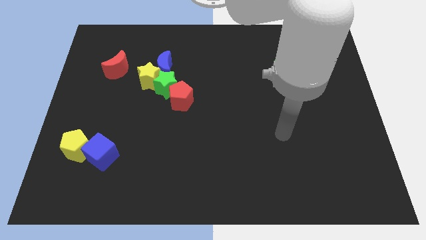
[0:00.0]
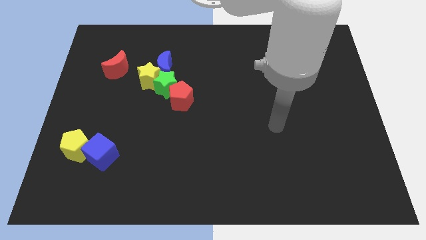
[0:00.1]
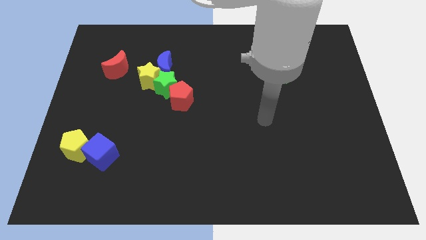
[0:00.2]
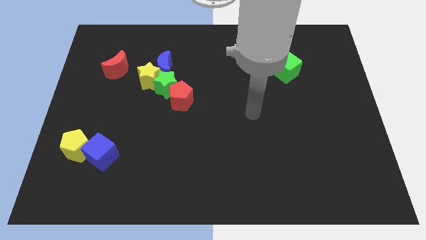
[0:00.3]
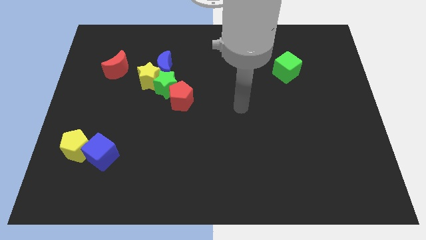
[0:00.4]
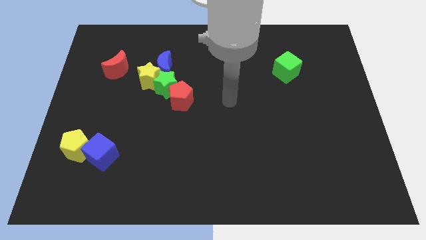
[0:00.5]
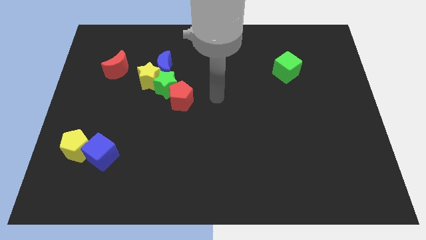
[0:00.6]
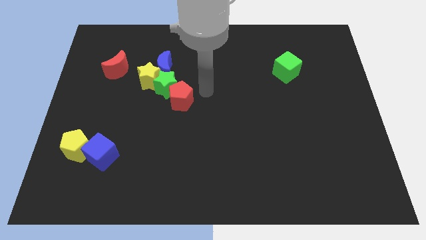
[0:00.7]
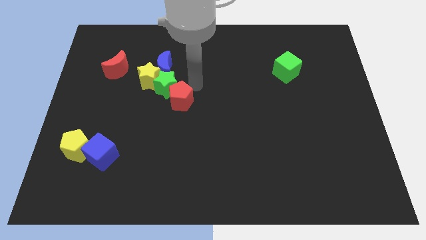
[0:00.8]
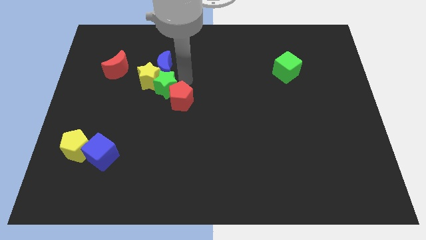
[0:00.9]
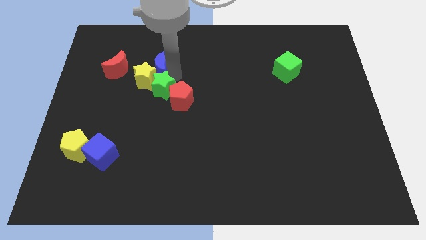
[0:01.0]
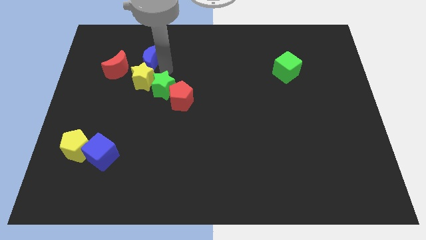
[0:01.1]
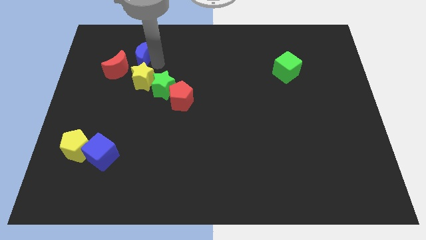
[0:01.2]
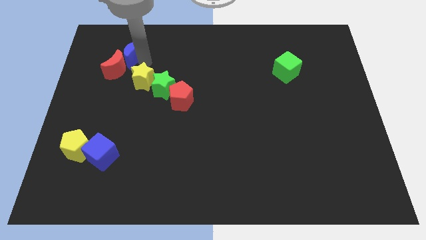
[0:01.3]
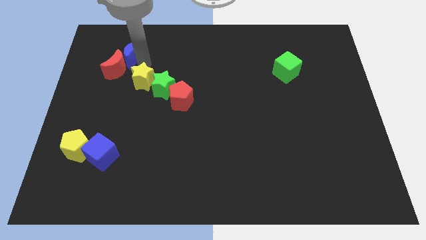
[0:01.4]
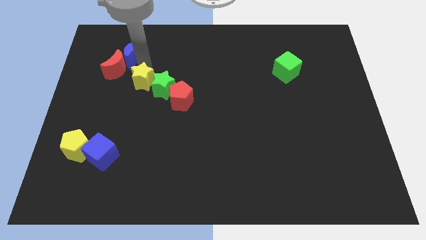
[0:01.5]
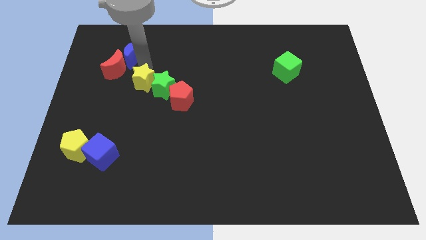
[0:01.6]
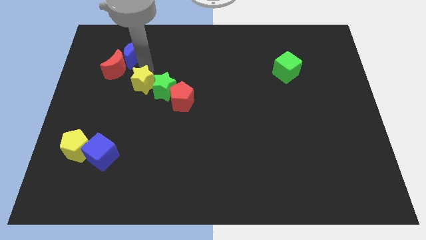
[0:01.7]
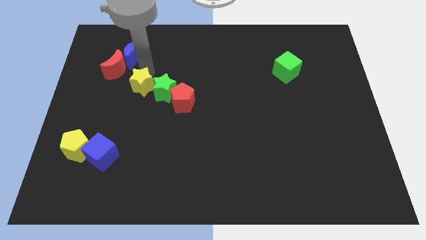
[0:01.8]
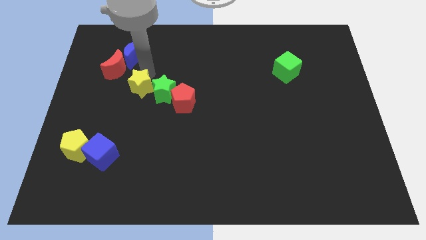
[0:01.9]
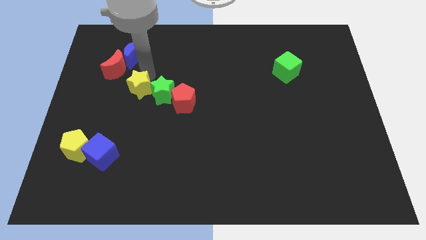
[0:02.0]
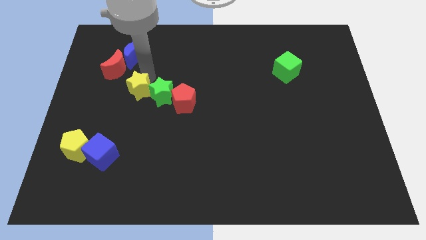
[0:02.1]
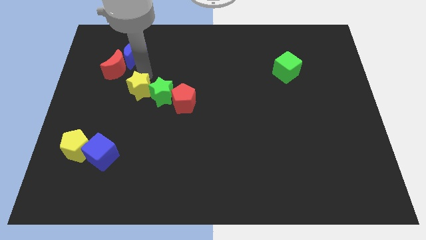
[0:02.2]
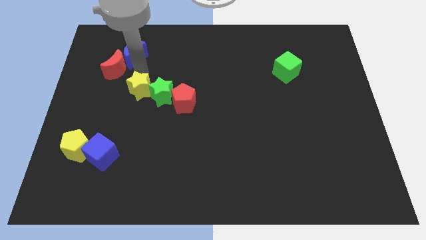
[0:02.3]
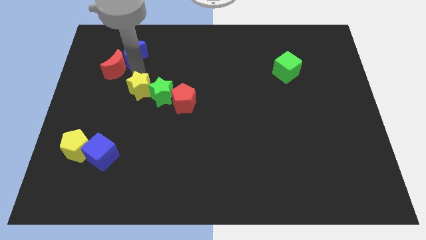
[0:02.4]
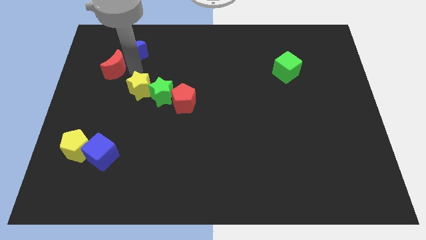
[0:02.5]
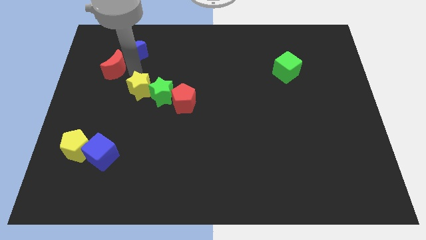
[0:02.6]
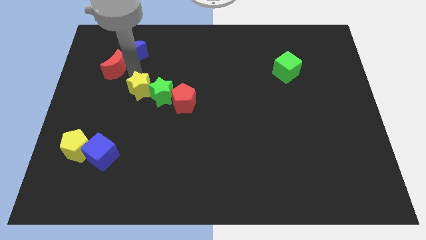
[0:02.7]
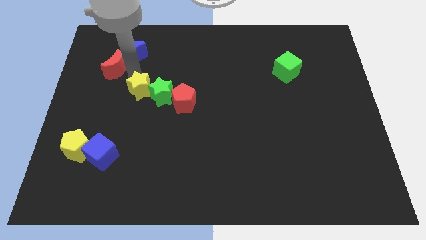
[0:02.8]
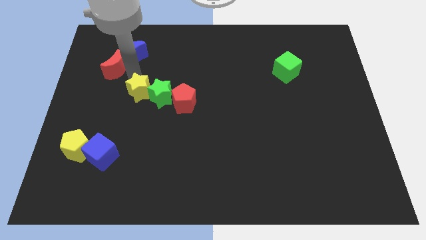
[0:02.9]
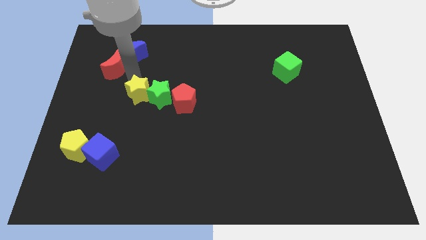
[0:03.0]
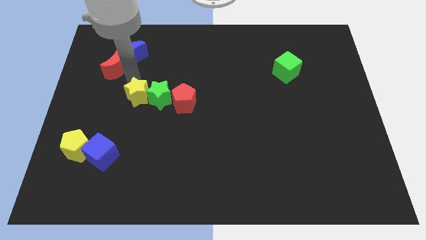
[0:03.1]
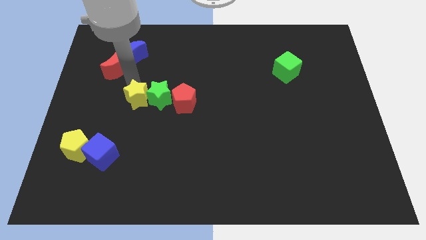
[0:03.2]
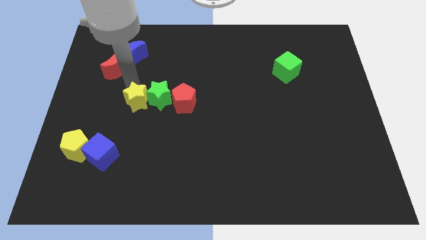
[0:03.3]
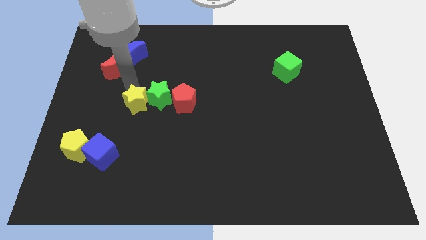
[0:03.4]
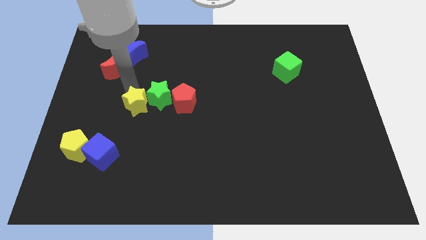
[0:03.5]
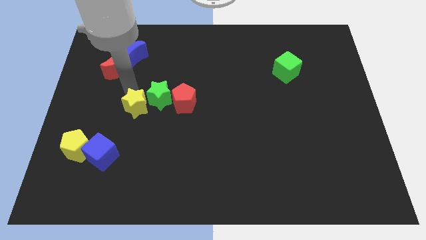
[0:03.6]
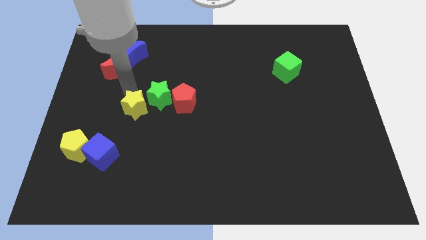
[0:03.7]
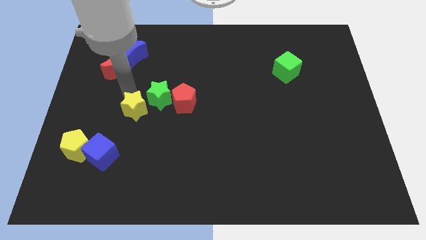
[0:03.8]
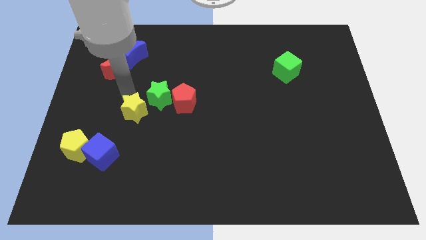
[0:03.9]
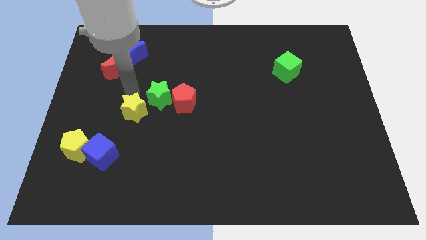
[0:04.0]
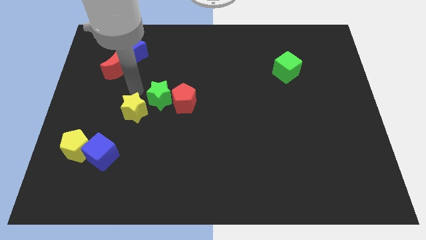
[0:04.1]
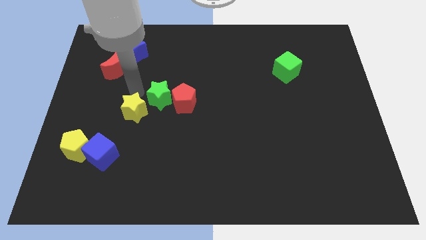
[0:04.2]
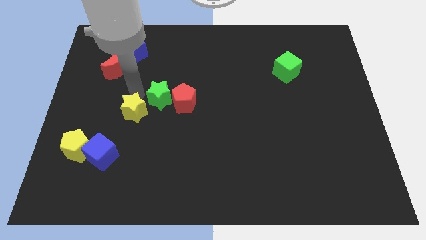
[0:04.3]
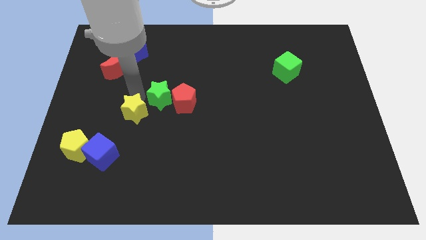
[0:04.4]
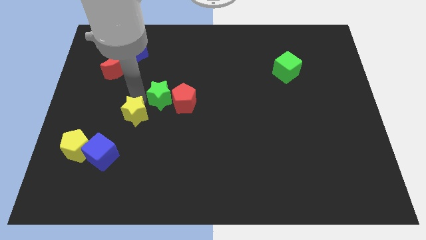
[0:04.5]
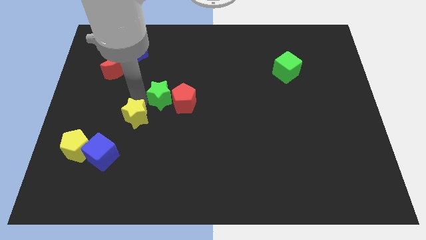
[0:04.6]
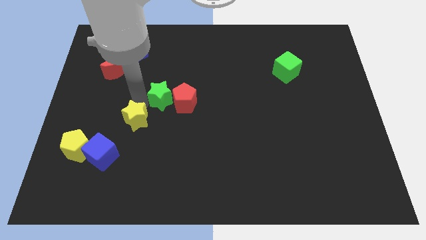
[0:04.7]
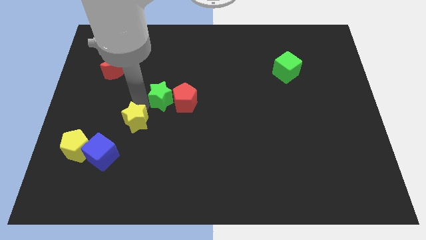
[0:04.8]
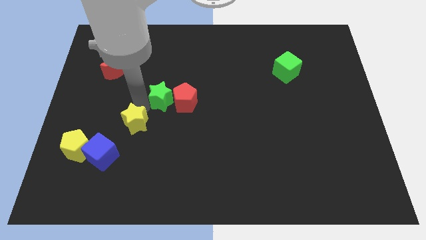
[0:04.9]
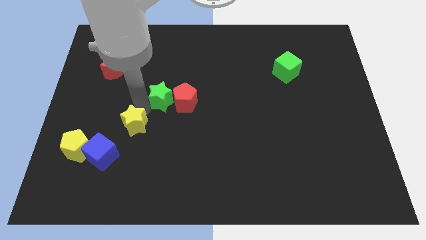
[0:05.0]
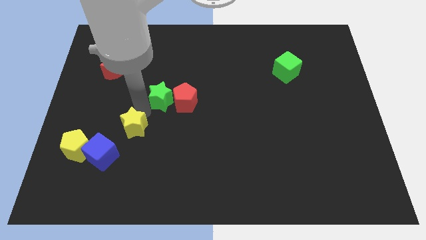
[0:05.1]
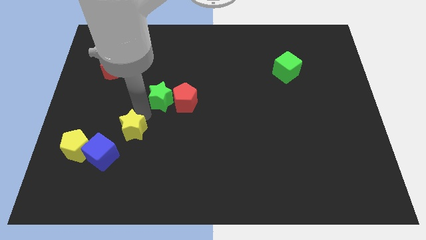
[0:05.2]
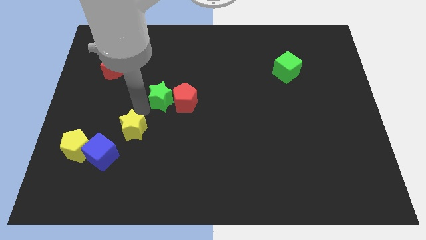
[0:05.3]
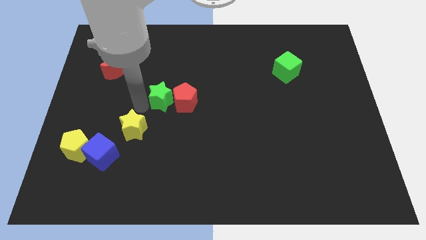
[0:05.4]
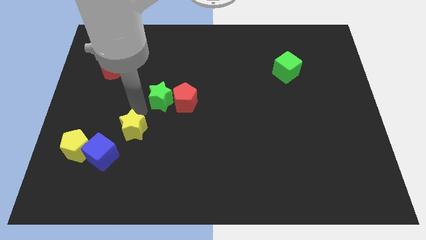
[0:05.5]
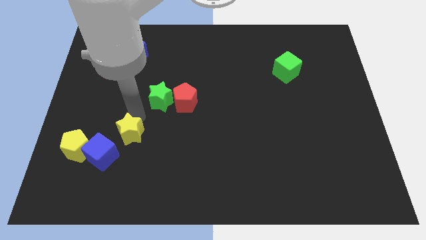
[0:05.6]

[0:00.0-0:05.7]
move the yellow star to the right of the yellow pentagon

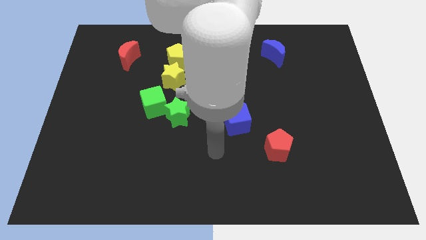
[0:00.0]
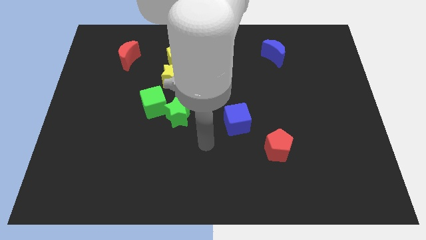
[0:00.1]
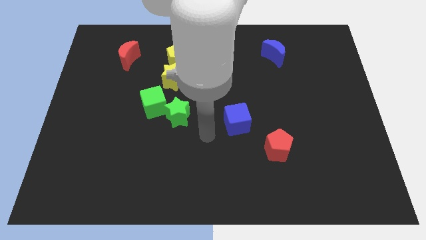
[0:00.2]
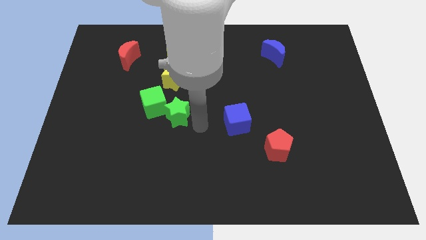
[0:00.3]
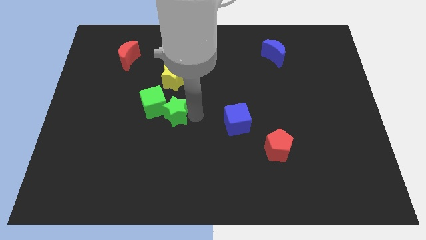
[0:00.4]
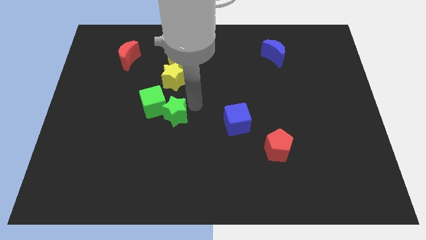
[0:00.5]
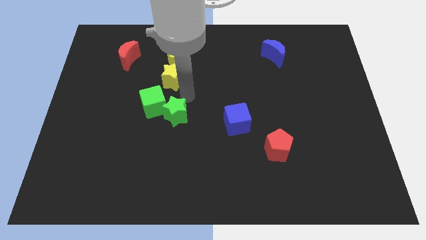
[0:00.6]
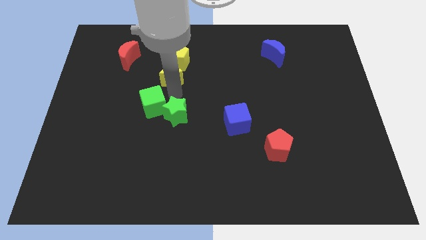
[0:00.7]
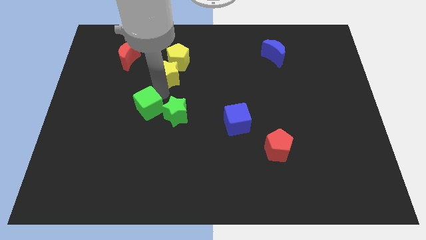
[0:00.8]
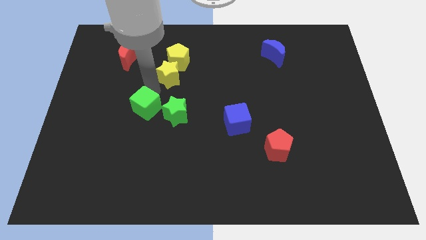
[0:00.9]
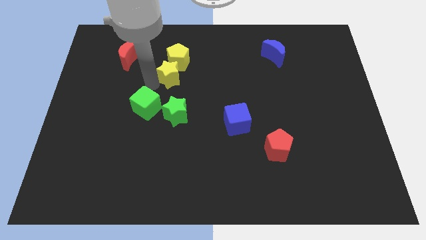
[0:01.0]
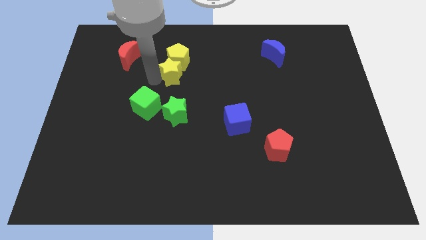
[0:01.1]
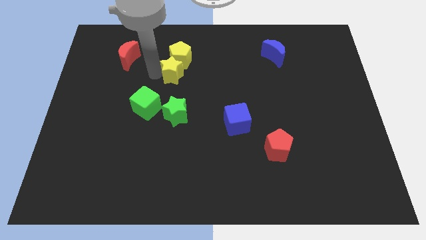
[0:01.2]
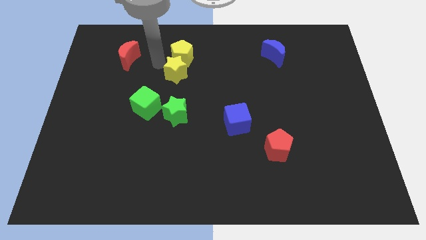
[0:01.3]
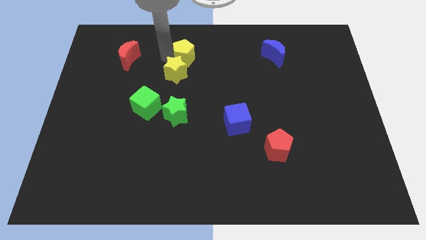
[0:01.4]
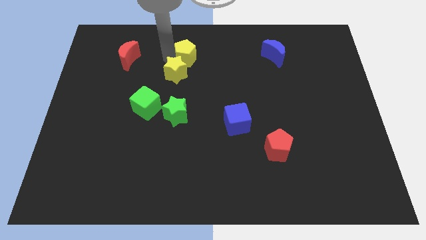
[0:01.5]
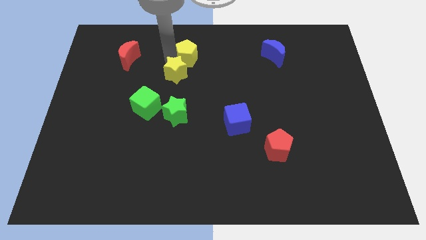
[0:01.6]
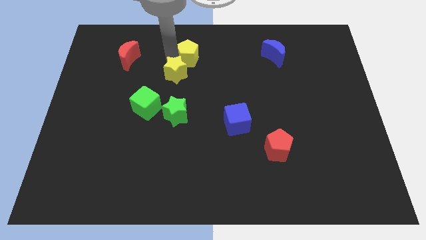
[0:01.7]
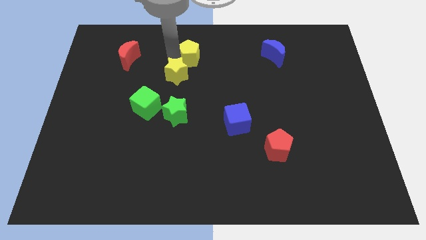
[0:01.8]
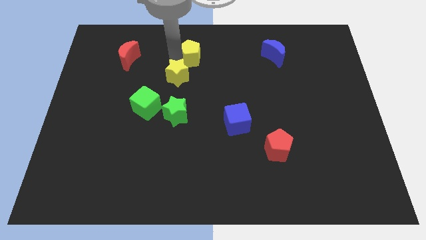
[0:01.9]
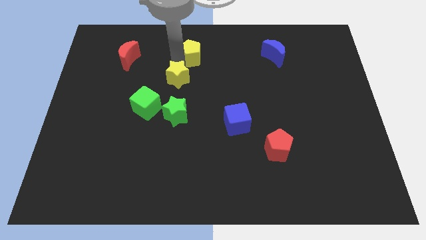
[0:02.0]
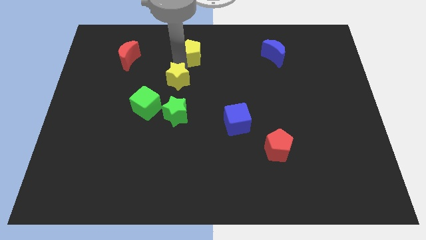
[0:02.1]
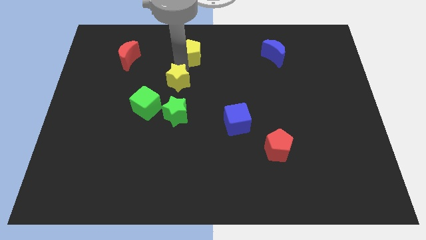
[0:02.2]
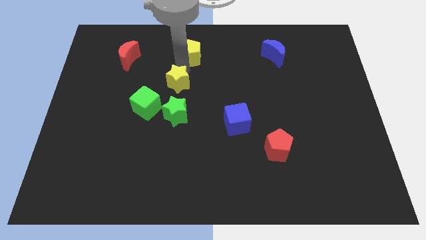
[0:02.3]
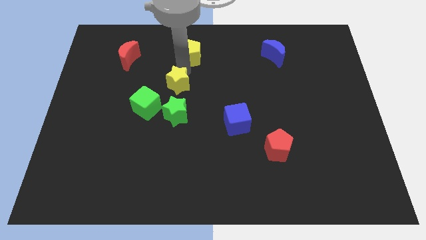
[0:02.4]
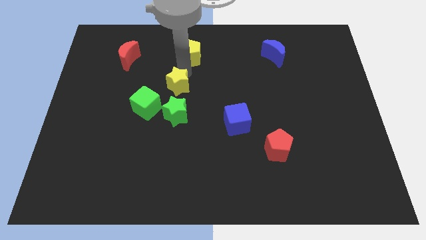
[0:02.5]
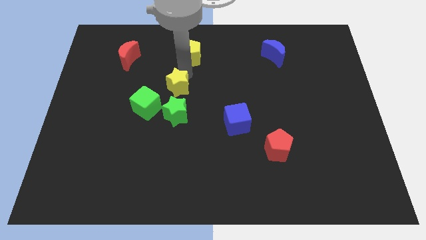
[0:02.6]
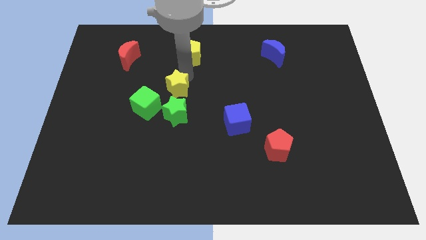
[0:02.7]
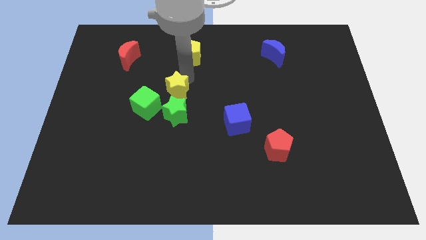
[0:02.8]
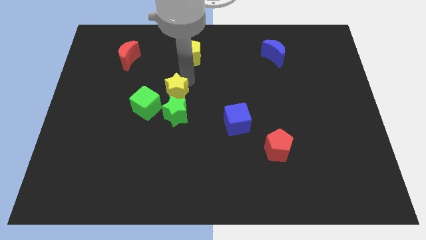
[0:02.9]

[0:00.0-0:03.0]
push the yellow star to the right side of the green cube
